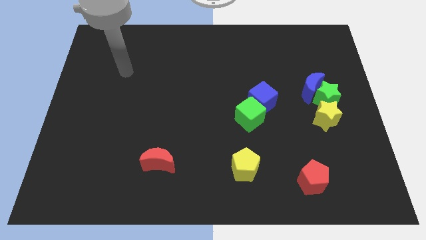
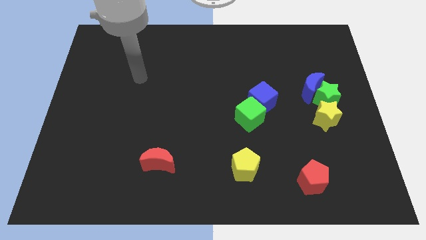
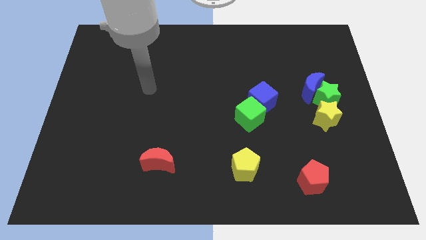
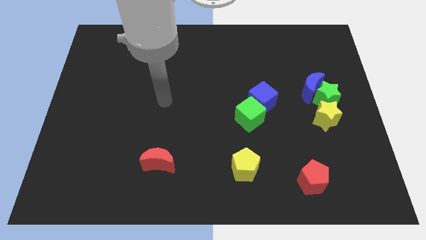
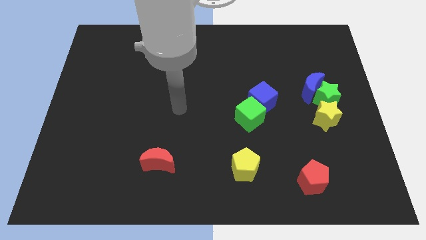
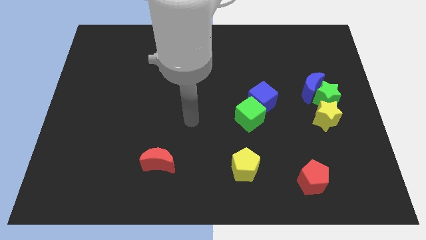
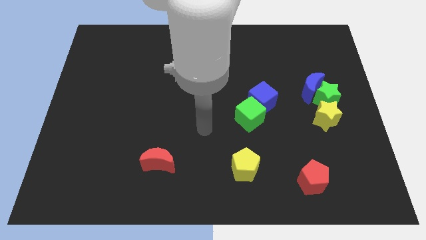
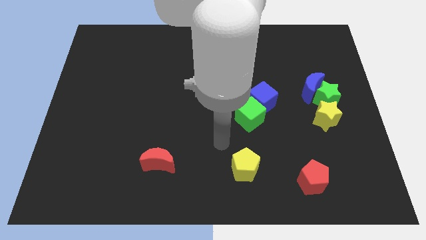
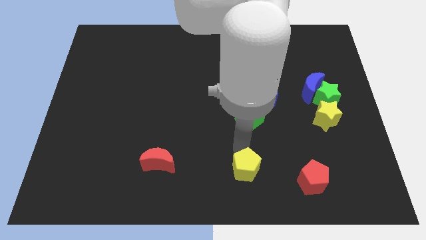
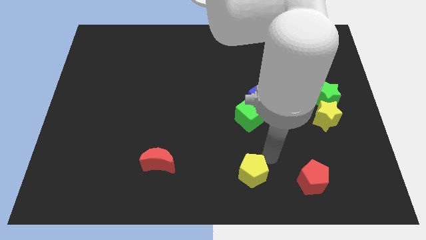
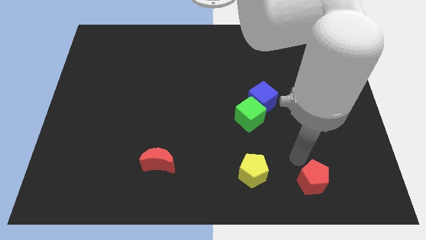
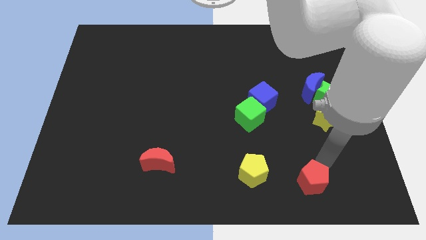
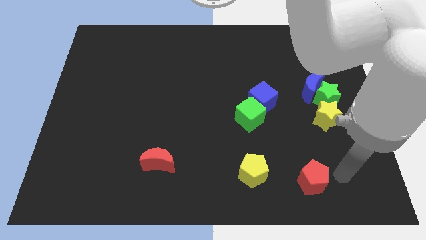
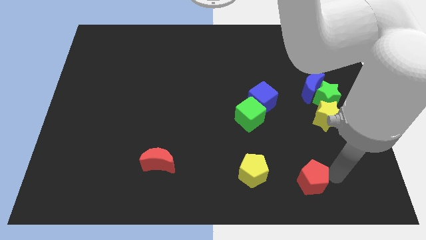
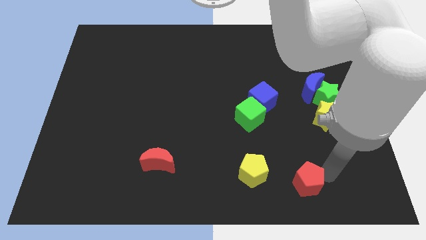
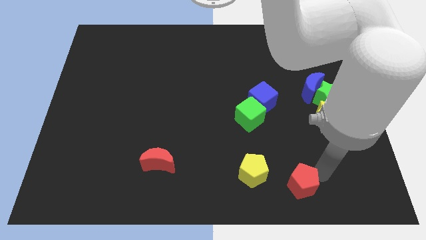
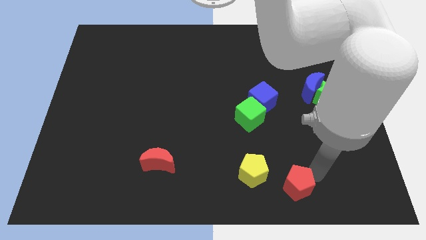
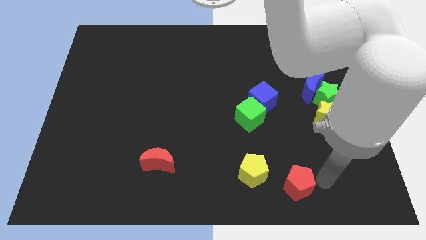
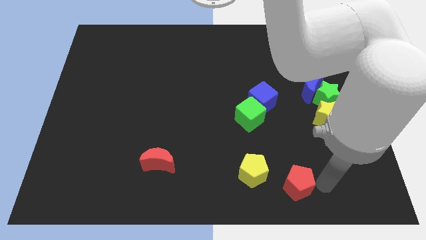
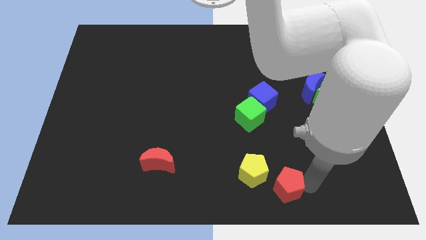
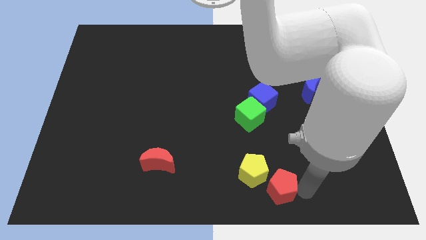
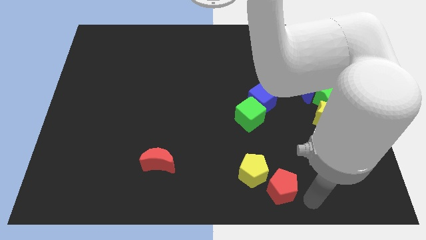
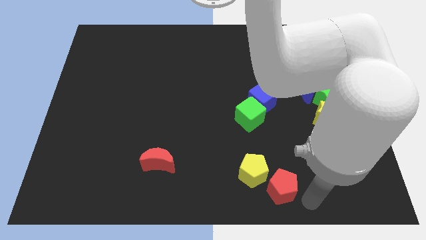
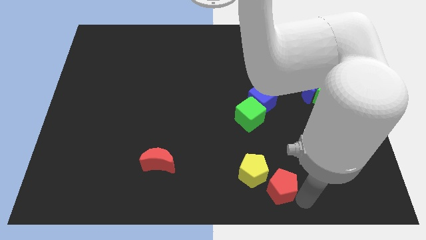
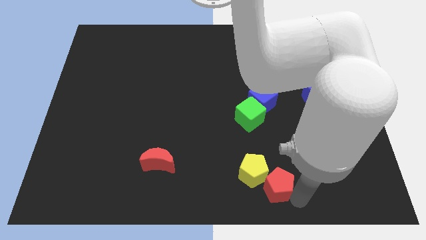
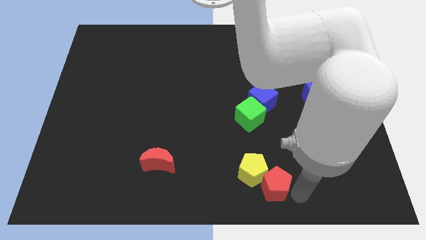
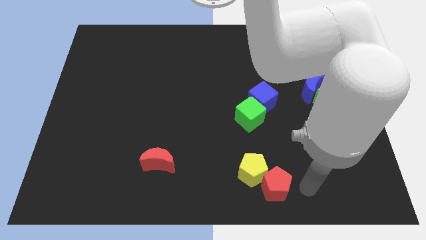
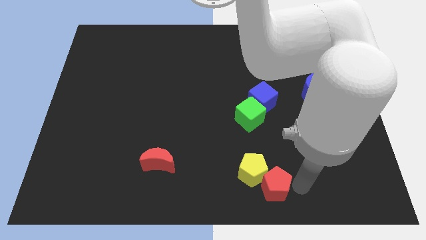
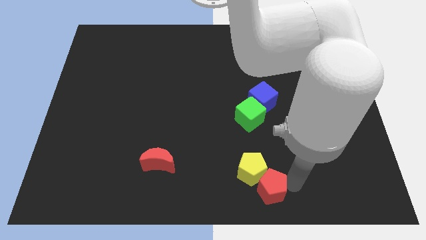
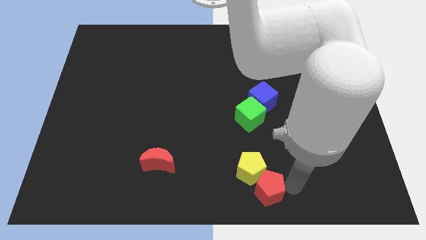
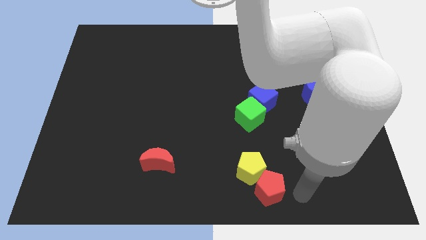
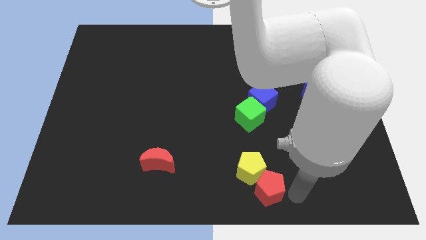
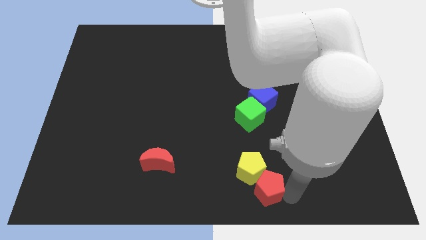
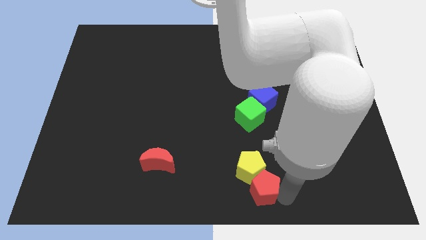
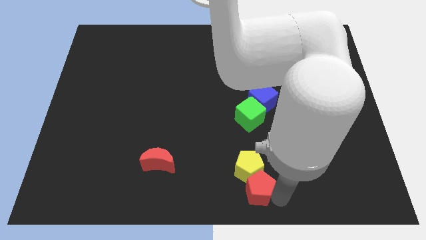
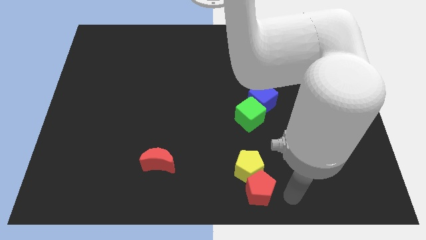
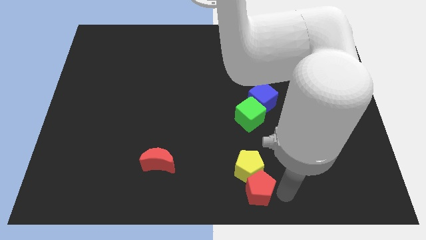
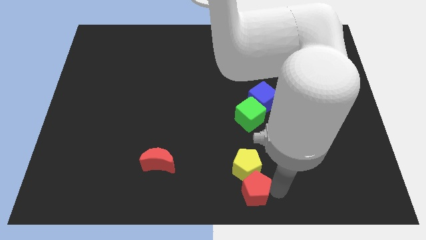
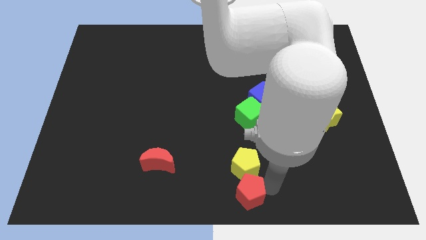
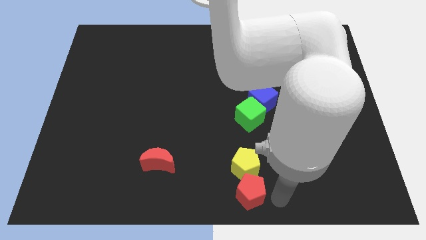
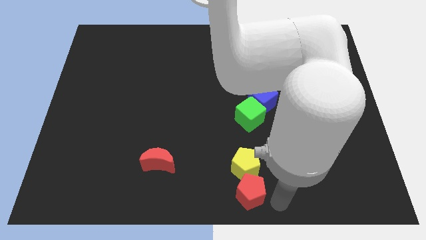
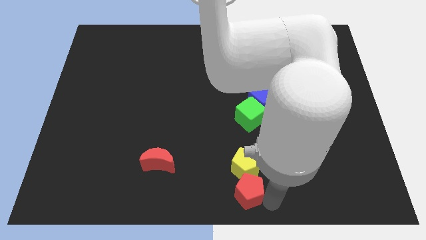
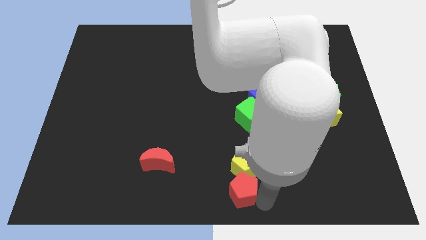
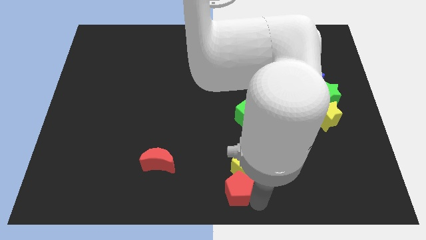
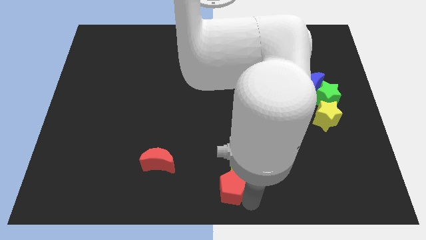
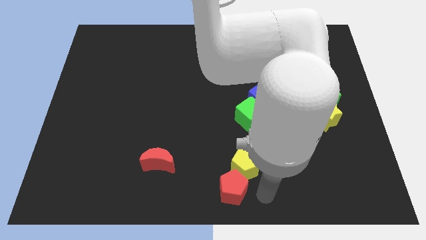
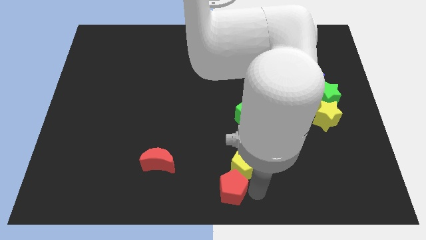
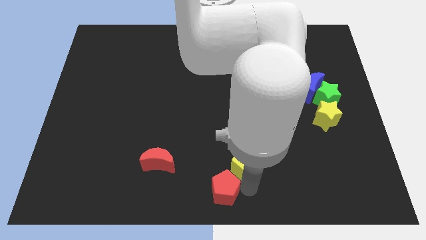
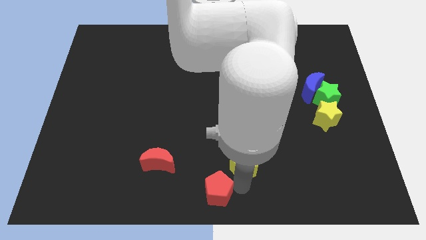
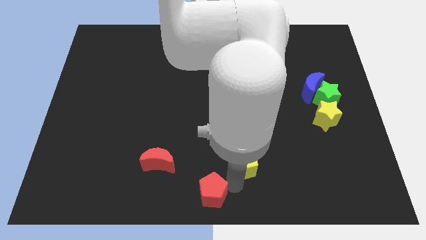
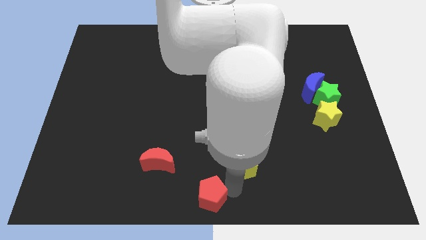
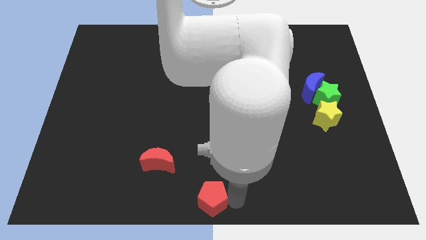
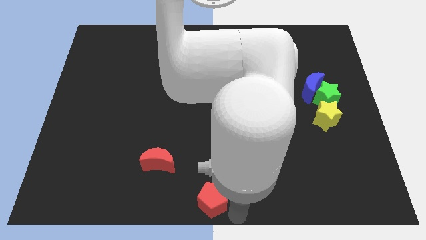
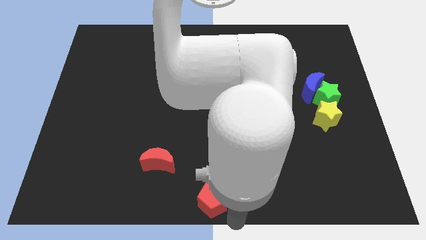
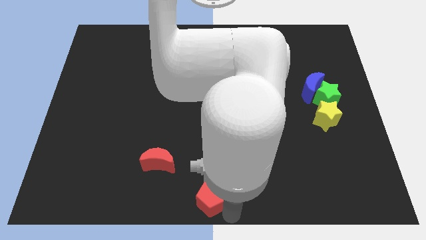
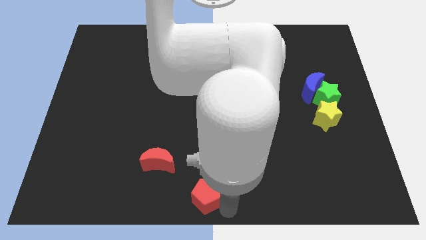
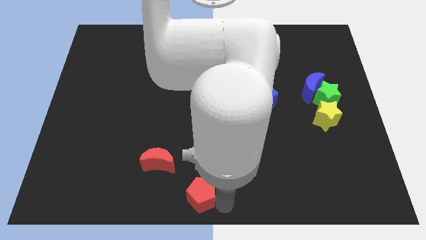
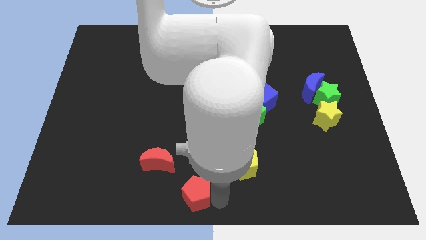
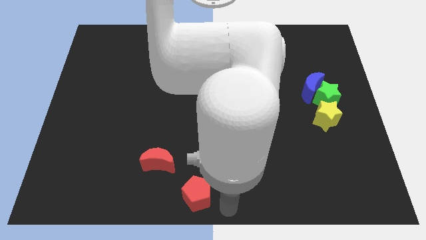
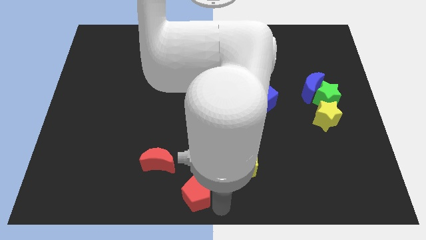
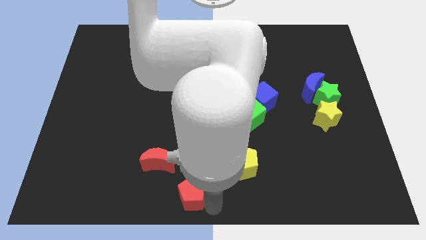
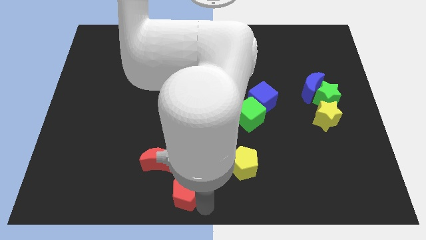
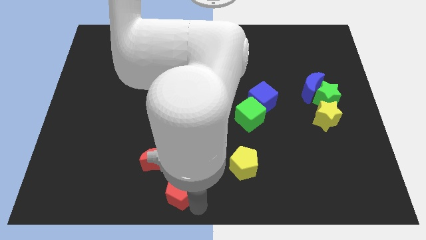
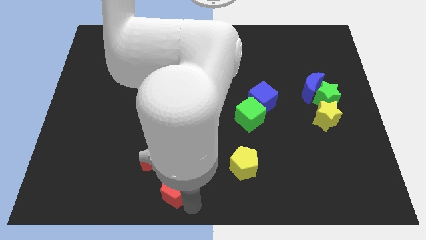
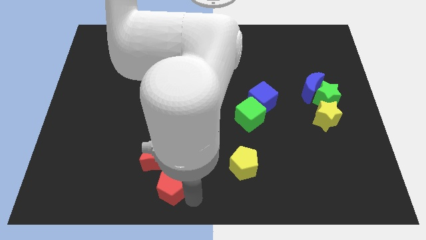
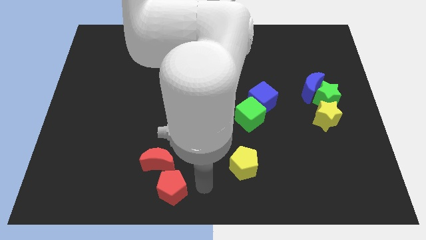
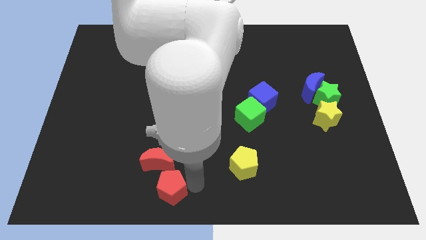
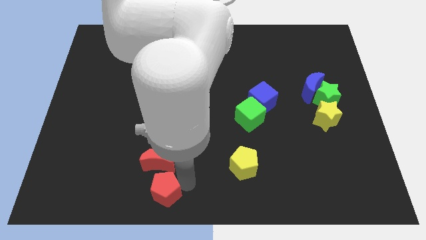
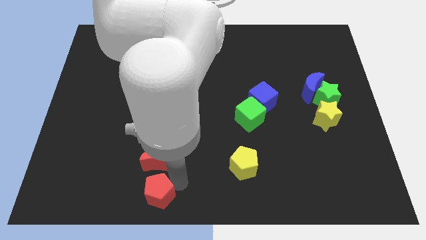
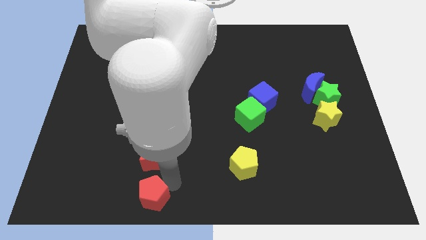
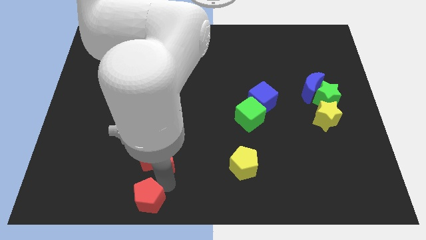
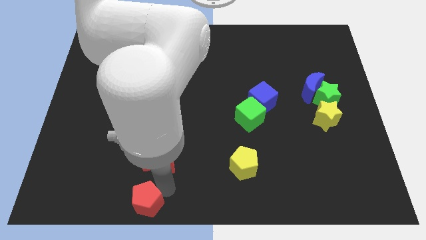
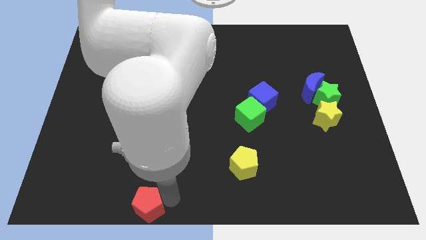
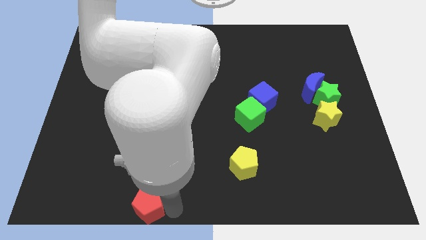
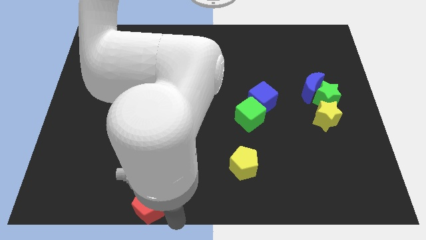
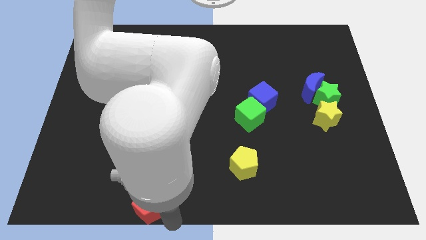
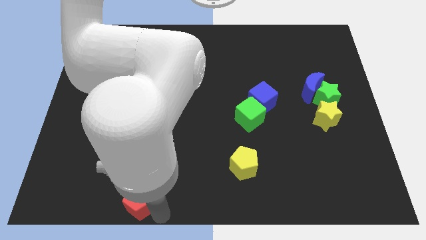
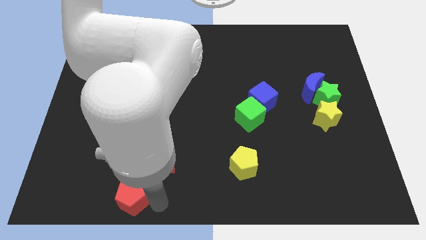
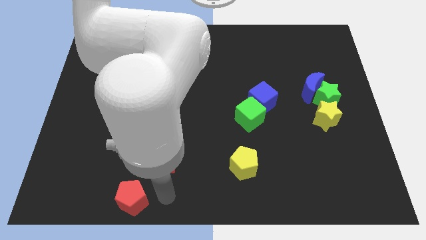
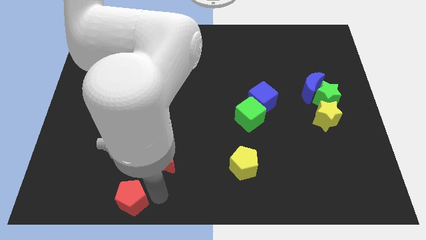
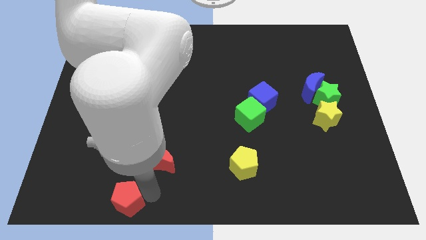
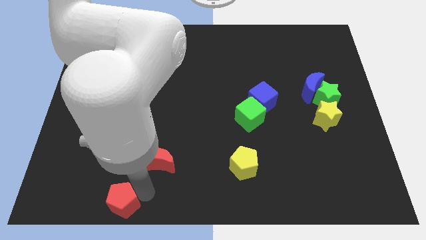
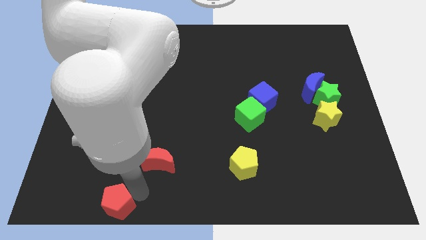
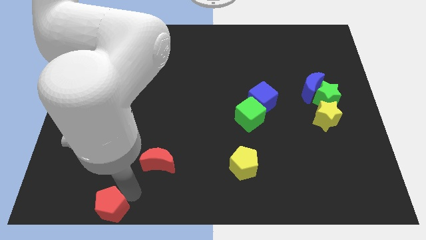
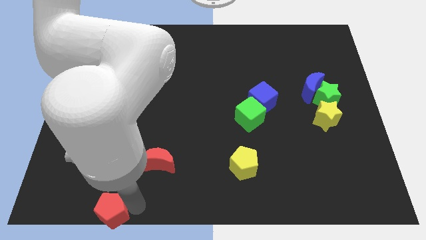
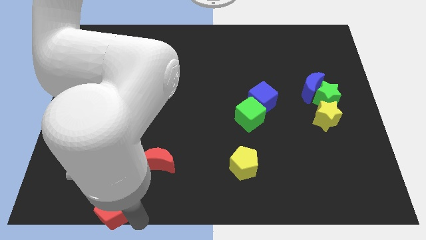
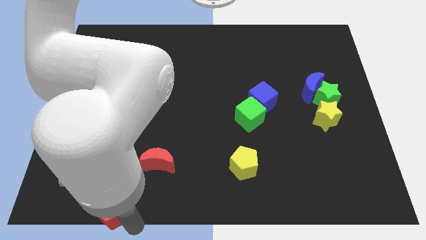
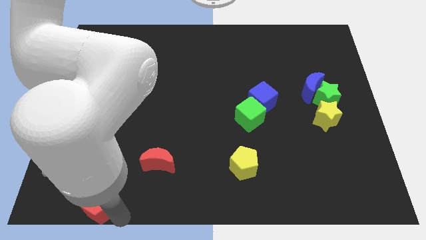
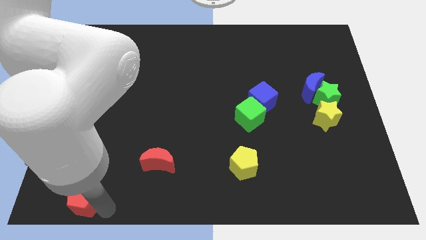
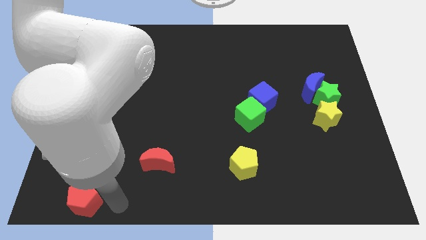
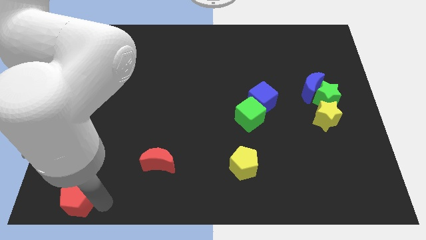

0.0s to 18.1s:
put the red pentagon to the bottom left of the board
